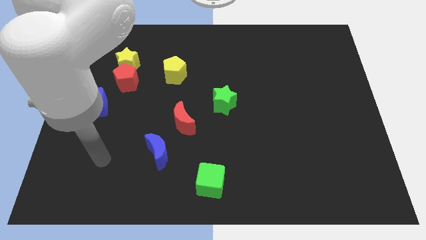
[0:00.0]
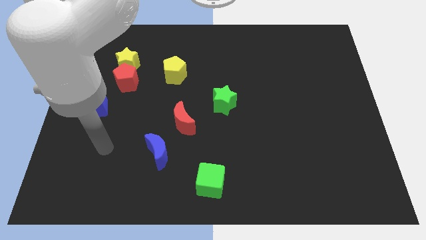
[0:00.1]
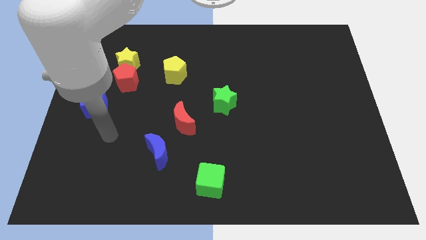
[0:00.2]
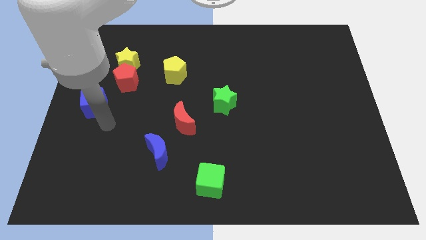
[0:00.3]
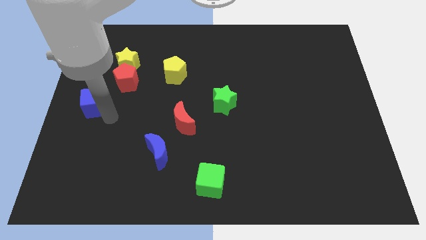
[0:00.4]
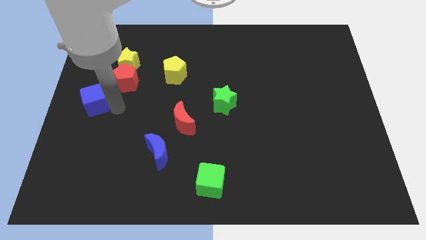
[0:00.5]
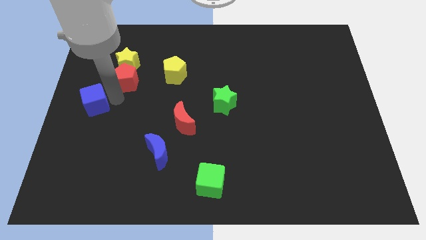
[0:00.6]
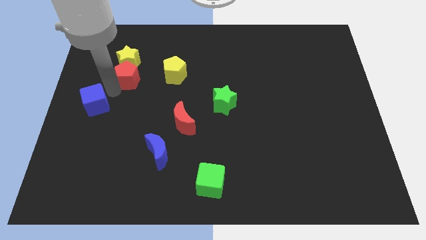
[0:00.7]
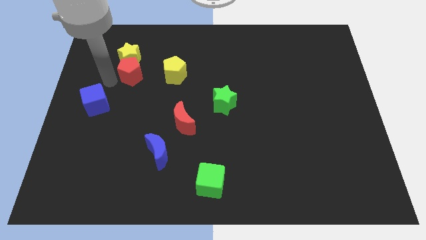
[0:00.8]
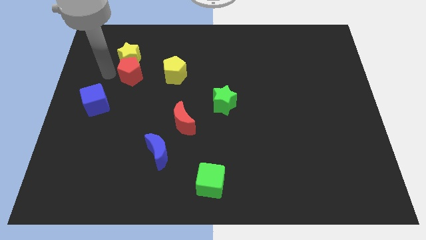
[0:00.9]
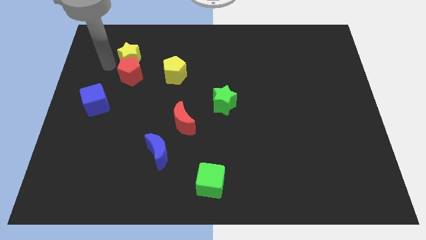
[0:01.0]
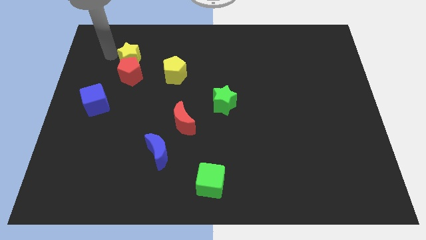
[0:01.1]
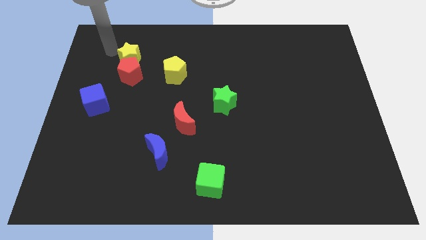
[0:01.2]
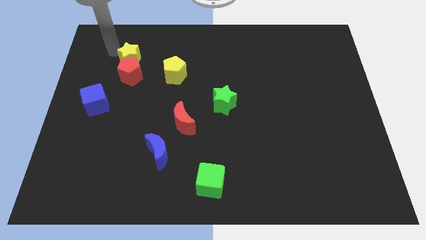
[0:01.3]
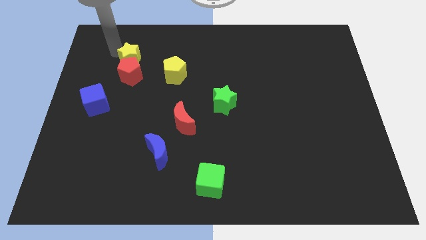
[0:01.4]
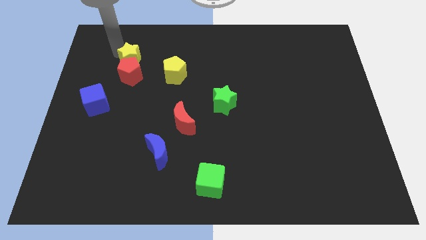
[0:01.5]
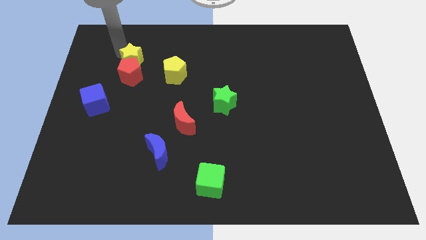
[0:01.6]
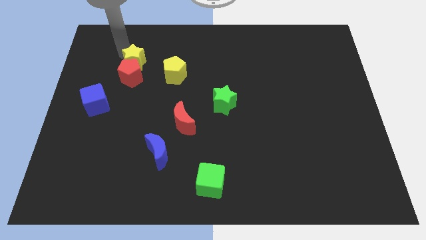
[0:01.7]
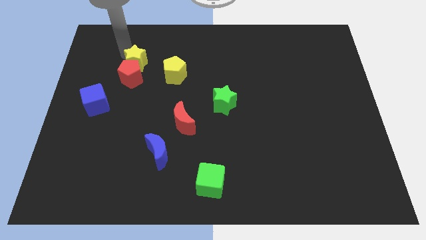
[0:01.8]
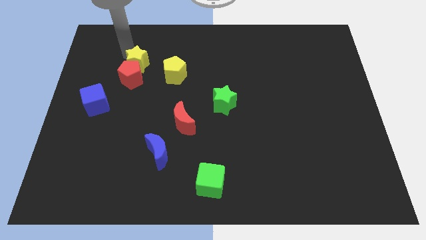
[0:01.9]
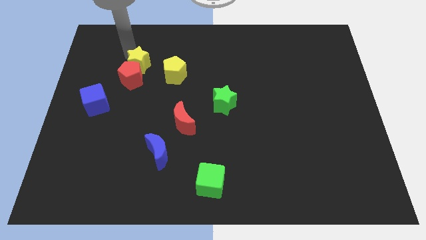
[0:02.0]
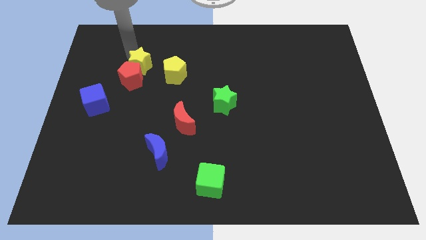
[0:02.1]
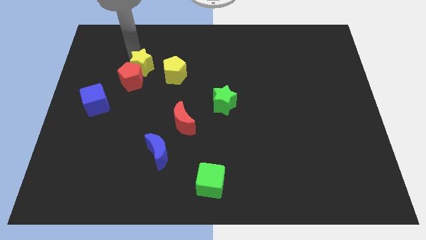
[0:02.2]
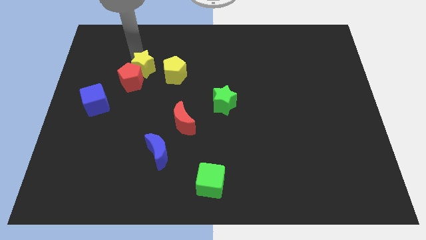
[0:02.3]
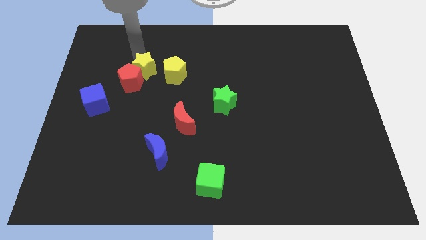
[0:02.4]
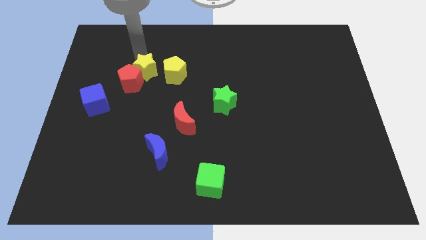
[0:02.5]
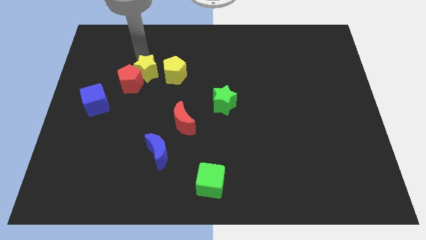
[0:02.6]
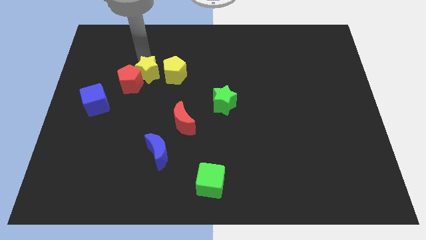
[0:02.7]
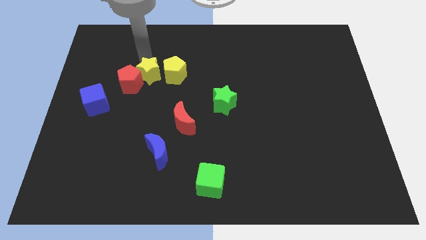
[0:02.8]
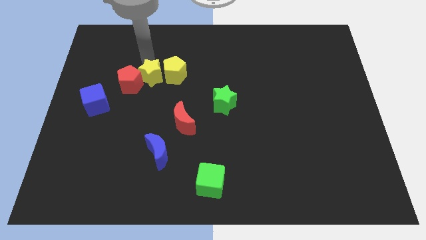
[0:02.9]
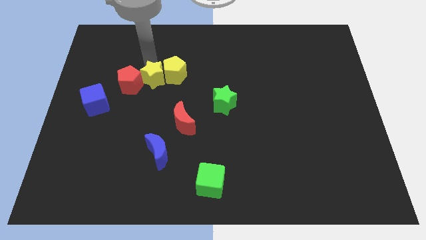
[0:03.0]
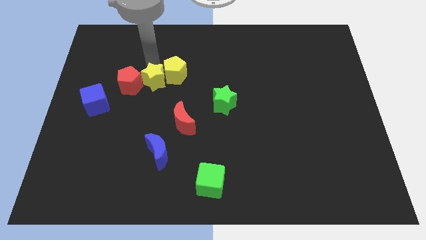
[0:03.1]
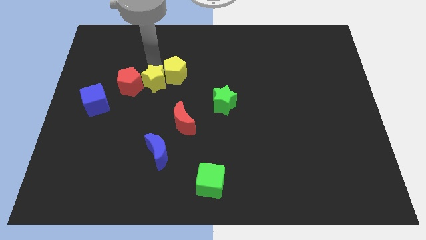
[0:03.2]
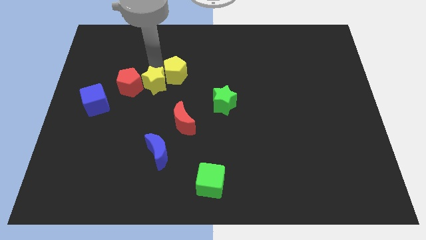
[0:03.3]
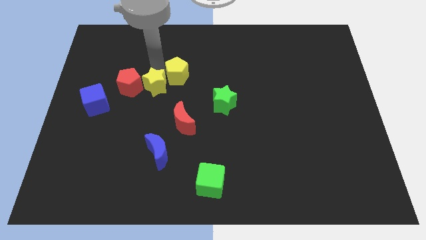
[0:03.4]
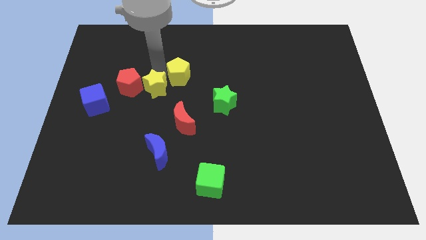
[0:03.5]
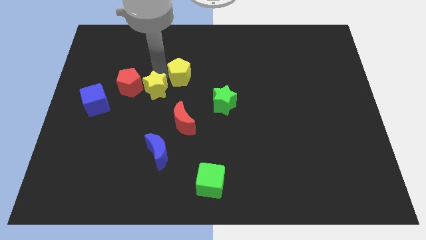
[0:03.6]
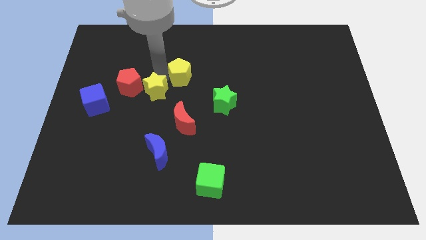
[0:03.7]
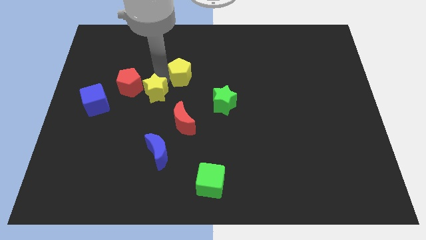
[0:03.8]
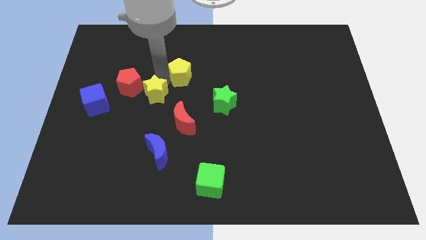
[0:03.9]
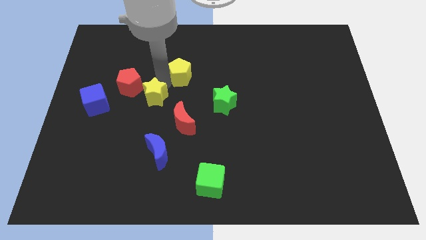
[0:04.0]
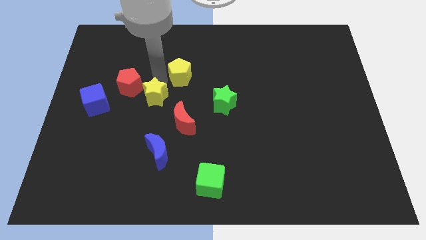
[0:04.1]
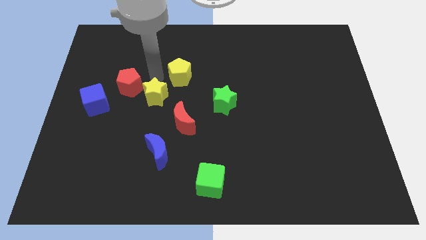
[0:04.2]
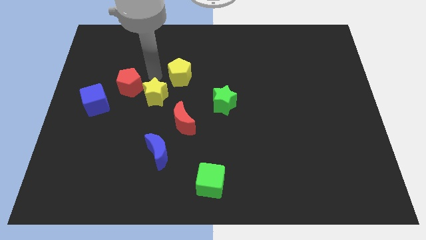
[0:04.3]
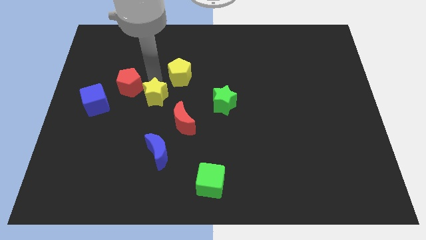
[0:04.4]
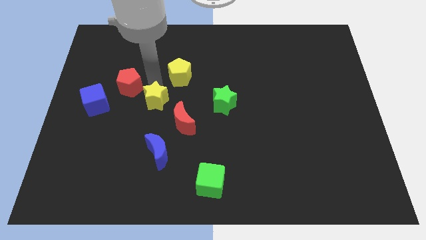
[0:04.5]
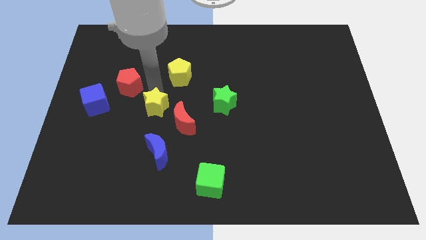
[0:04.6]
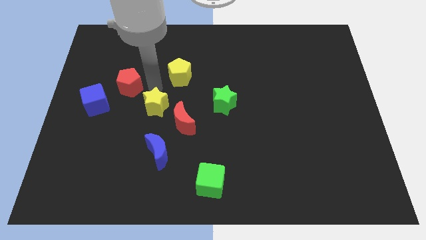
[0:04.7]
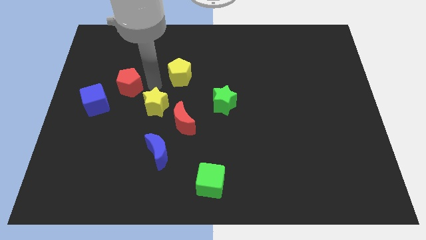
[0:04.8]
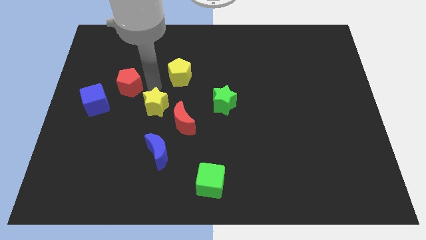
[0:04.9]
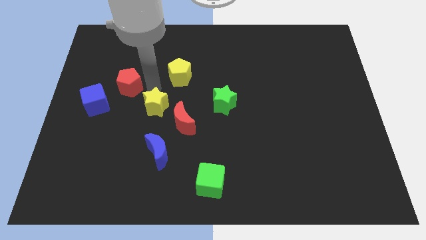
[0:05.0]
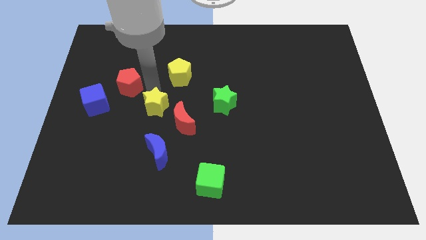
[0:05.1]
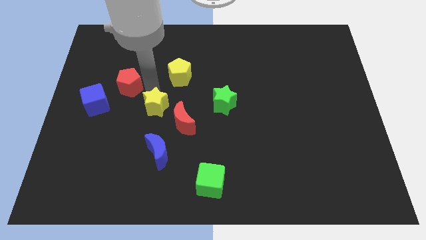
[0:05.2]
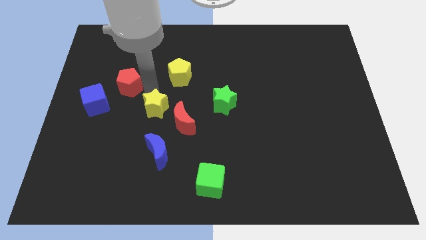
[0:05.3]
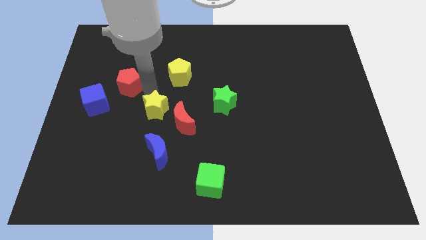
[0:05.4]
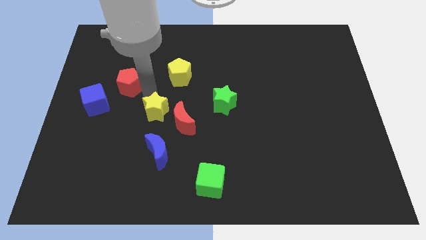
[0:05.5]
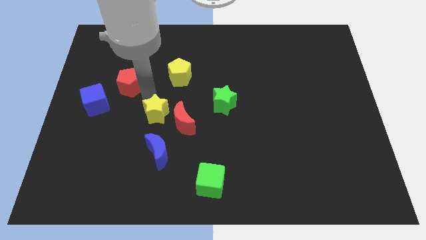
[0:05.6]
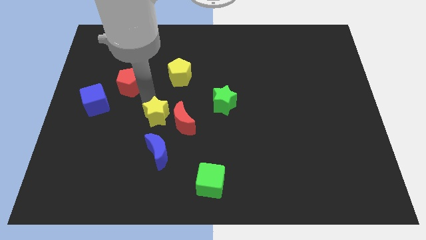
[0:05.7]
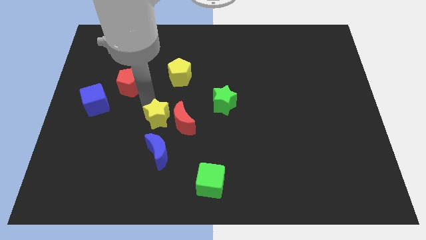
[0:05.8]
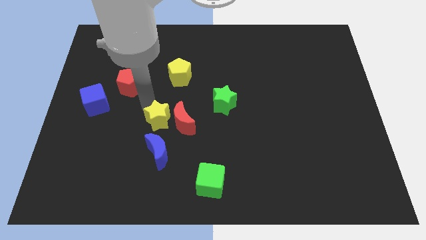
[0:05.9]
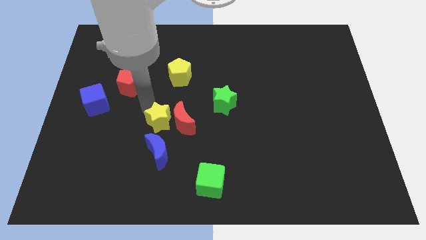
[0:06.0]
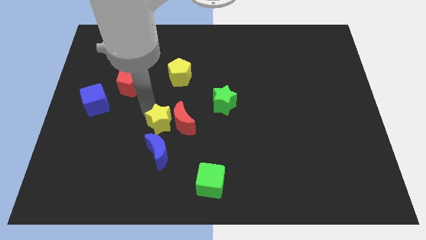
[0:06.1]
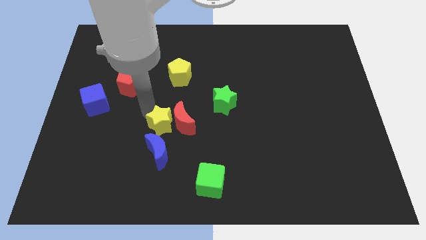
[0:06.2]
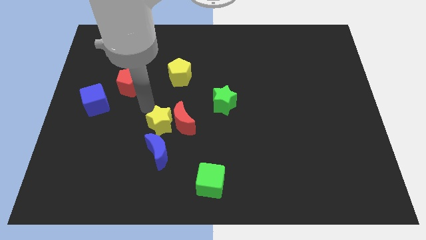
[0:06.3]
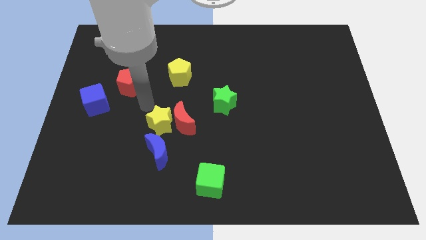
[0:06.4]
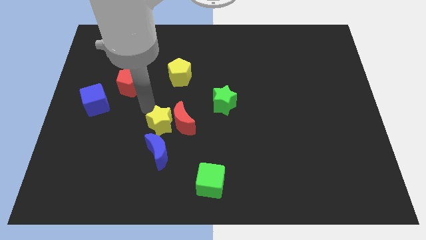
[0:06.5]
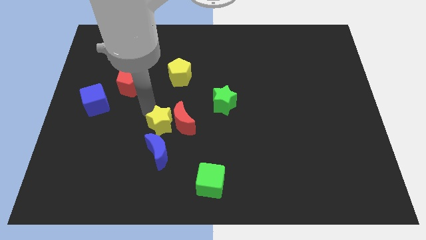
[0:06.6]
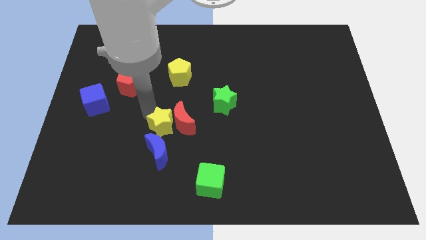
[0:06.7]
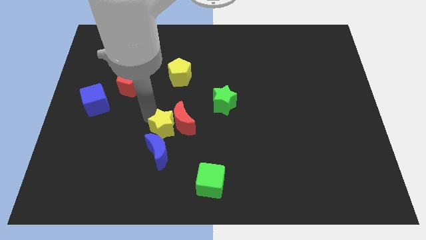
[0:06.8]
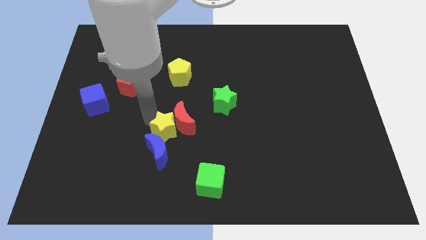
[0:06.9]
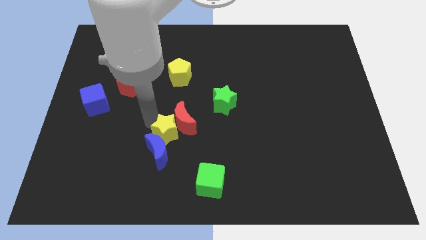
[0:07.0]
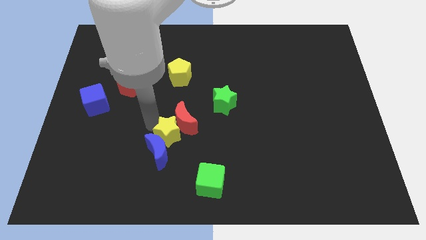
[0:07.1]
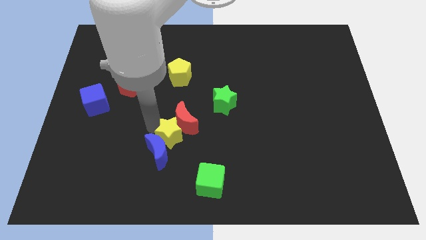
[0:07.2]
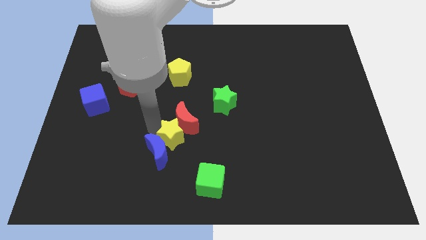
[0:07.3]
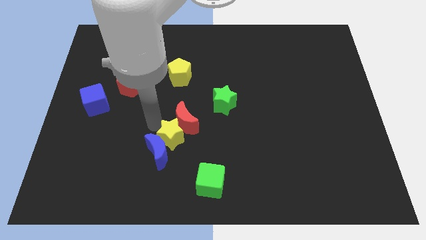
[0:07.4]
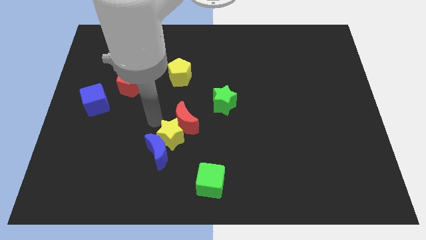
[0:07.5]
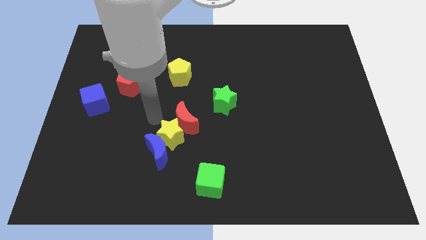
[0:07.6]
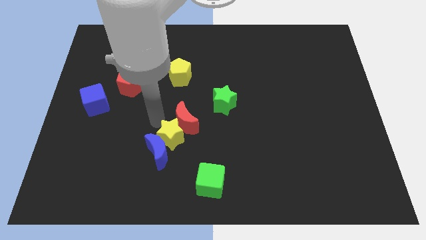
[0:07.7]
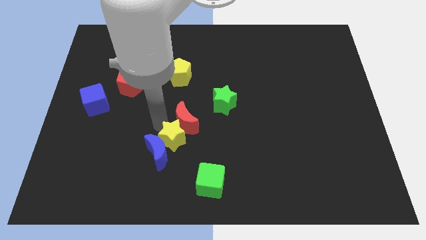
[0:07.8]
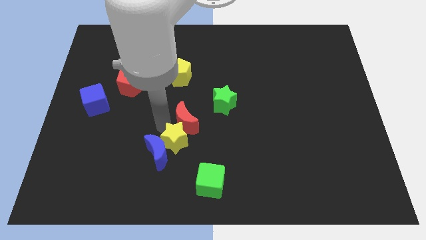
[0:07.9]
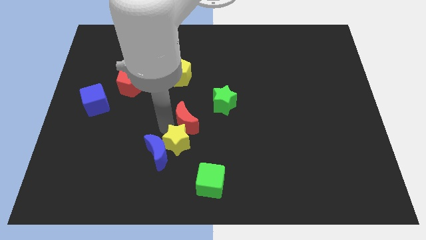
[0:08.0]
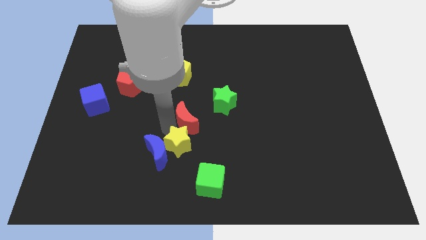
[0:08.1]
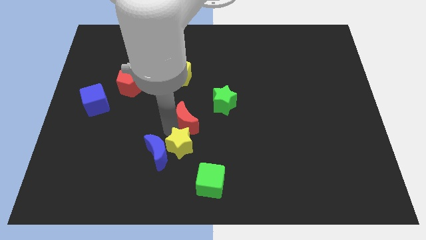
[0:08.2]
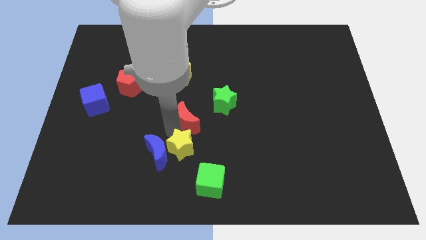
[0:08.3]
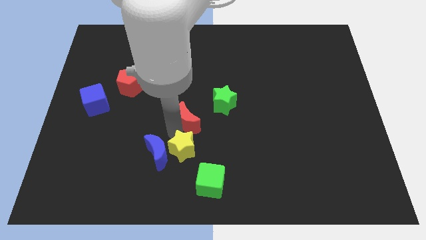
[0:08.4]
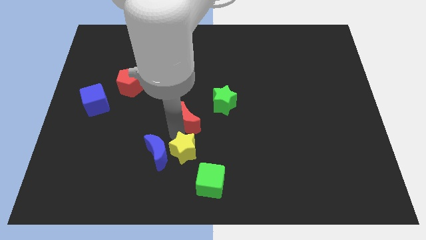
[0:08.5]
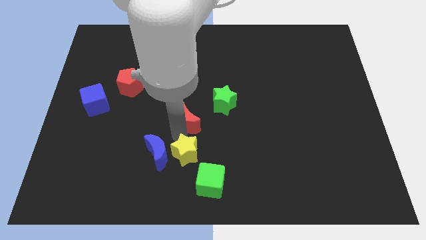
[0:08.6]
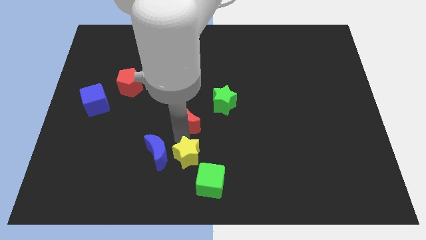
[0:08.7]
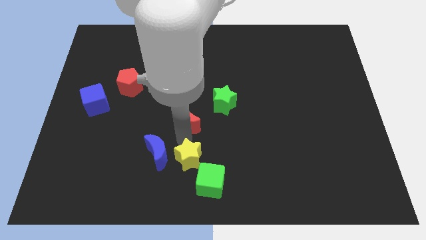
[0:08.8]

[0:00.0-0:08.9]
push the yellow star to the bottom side
